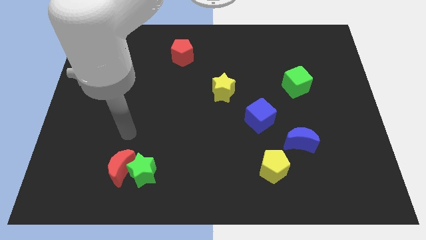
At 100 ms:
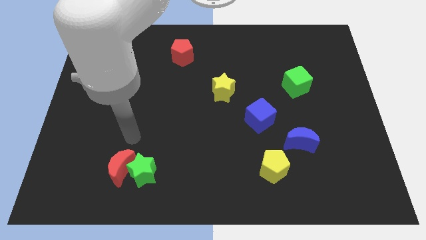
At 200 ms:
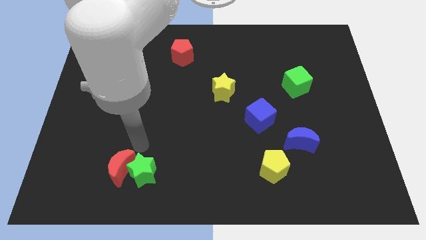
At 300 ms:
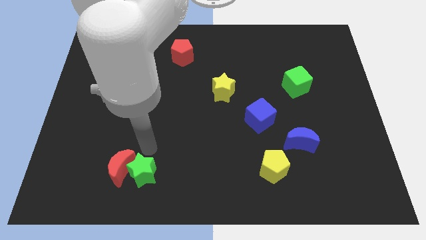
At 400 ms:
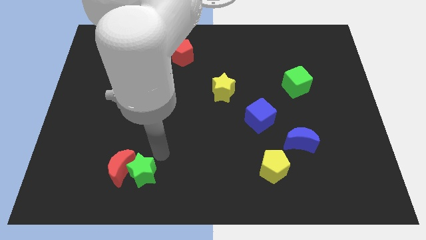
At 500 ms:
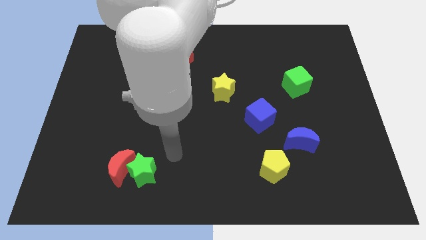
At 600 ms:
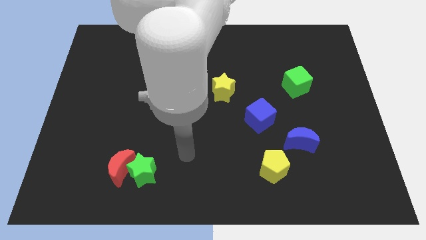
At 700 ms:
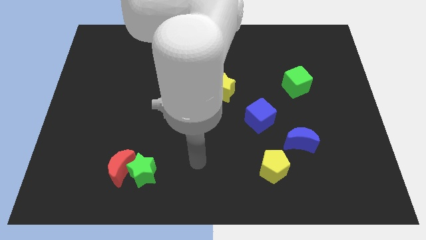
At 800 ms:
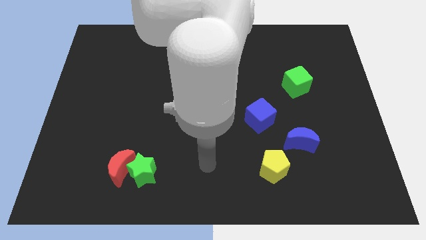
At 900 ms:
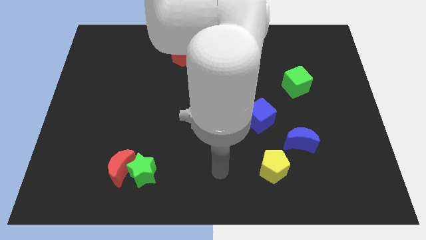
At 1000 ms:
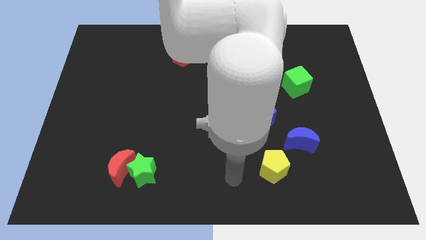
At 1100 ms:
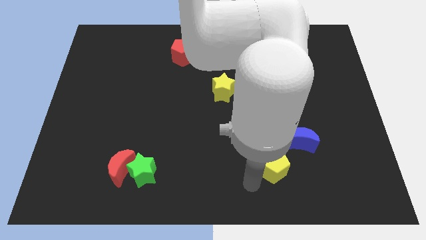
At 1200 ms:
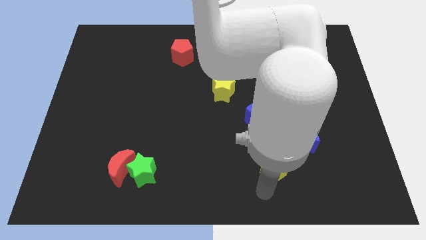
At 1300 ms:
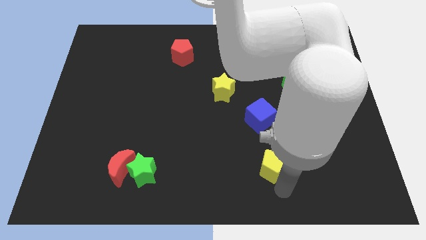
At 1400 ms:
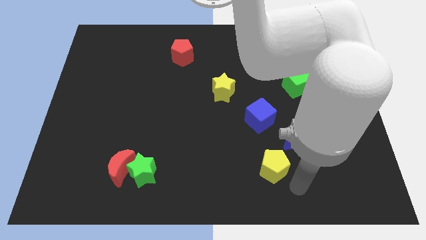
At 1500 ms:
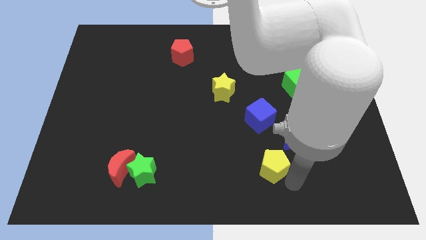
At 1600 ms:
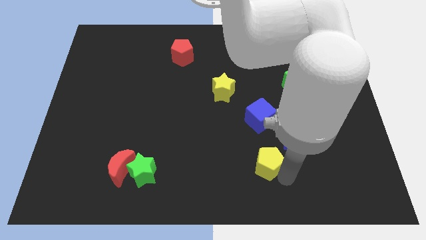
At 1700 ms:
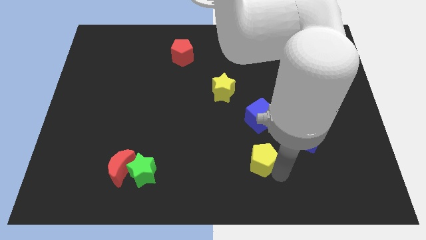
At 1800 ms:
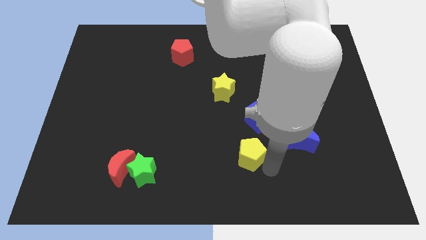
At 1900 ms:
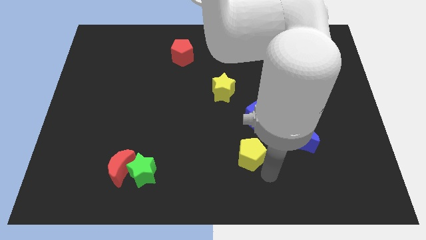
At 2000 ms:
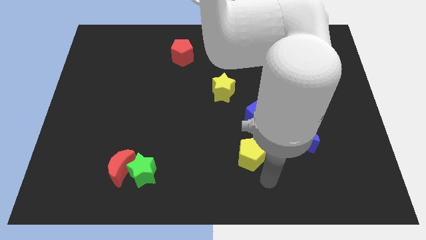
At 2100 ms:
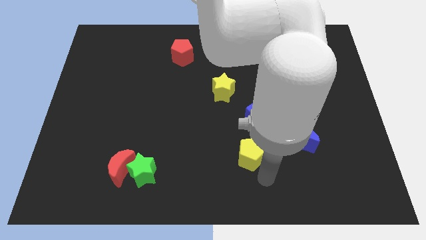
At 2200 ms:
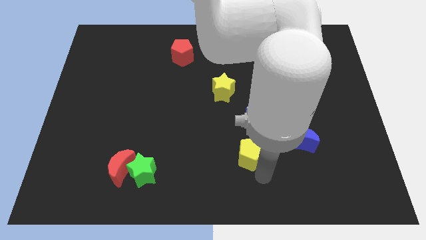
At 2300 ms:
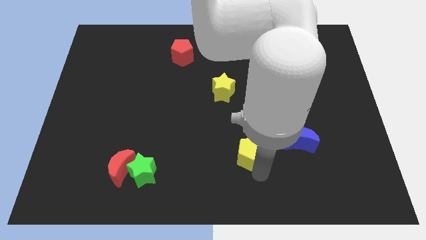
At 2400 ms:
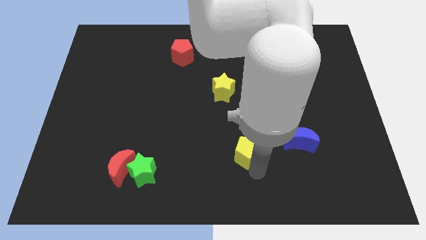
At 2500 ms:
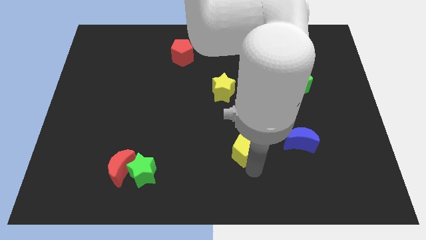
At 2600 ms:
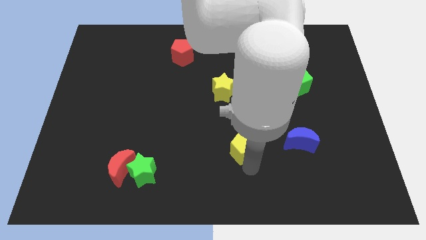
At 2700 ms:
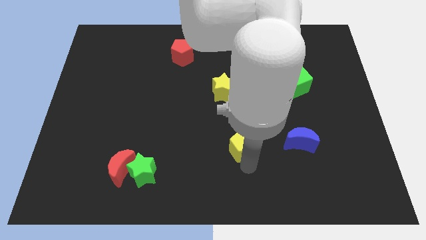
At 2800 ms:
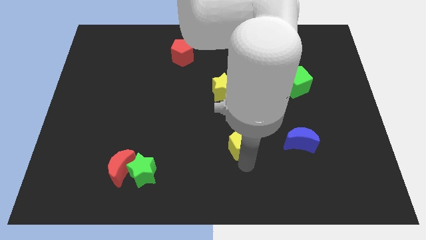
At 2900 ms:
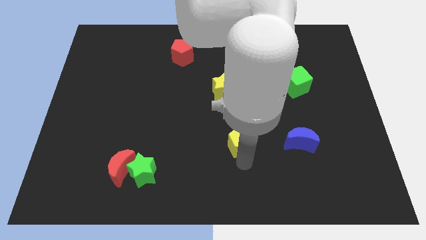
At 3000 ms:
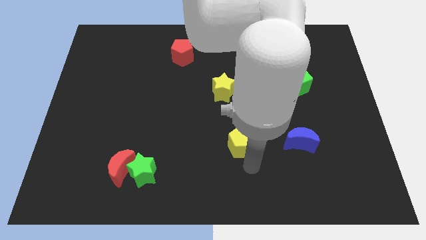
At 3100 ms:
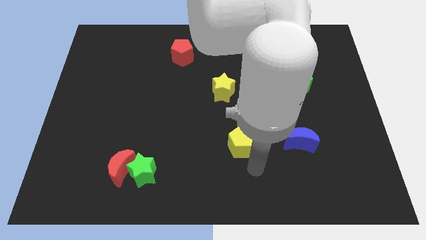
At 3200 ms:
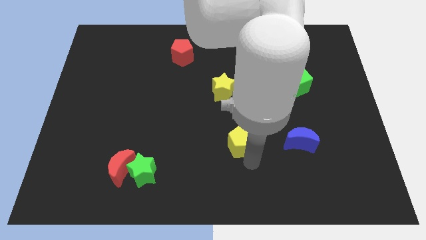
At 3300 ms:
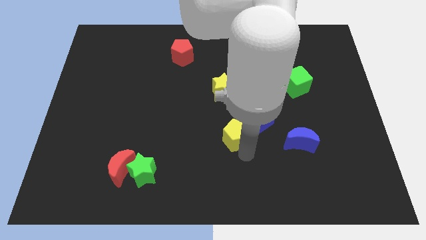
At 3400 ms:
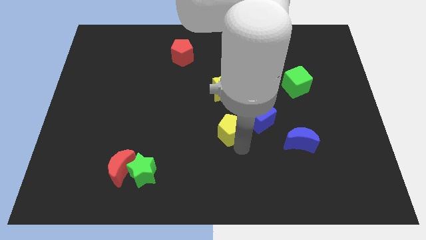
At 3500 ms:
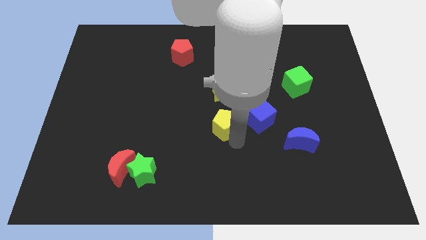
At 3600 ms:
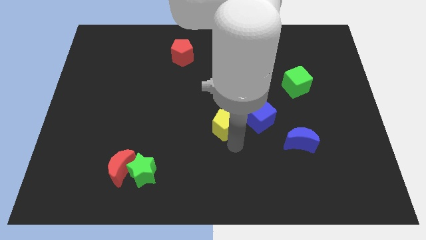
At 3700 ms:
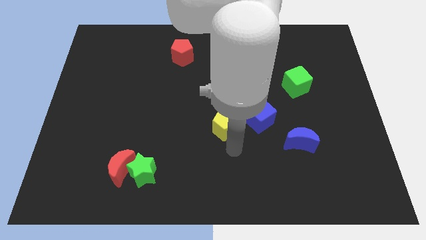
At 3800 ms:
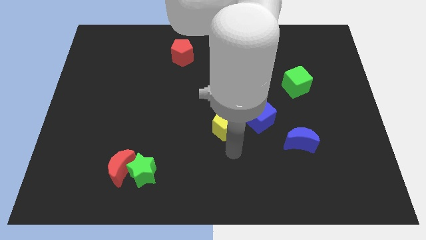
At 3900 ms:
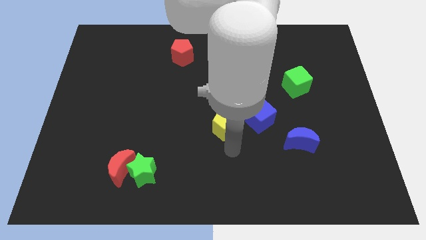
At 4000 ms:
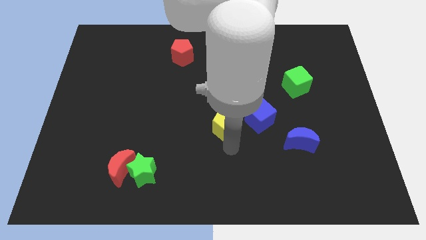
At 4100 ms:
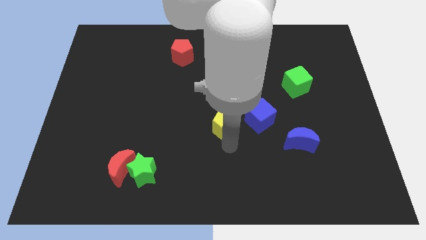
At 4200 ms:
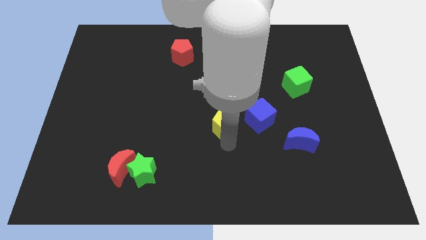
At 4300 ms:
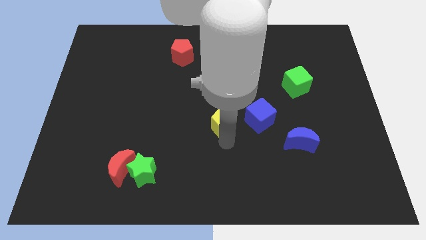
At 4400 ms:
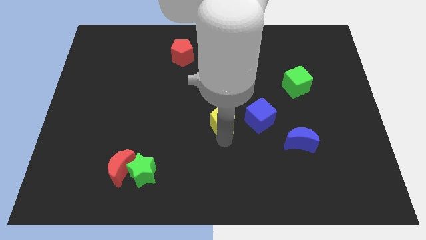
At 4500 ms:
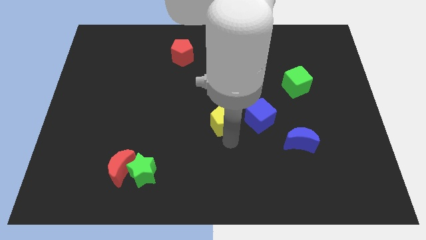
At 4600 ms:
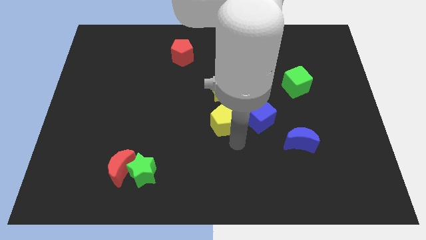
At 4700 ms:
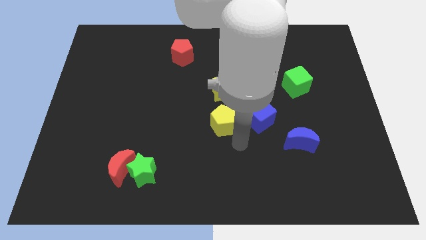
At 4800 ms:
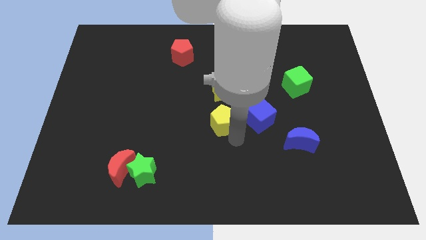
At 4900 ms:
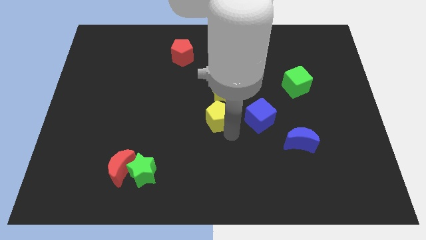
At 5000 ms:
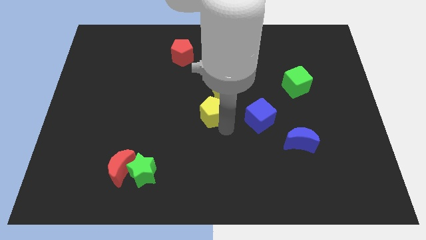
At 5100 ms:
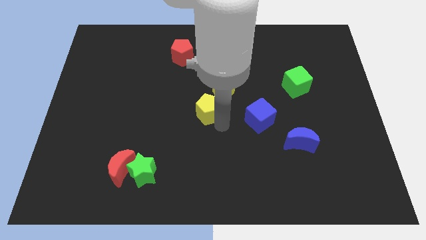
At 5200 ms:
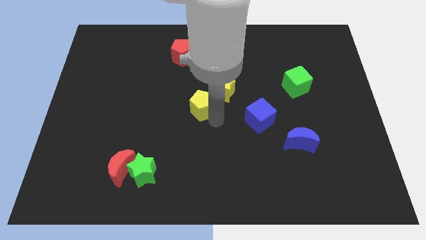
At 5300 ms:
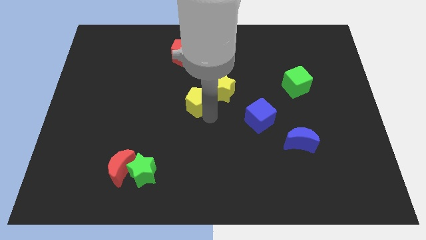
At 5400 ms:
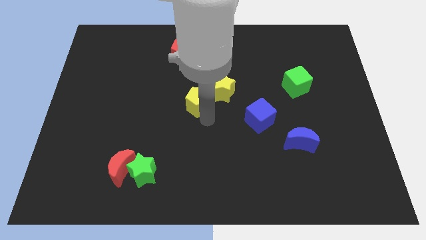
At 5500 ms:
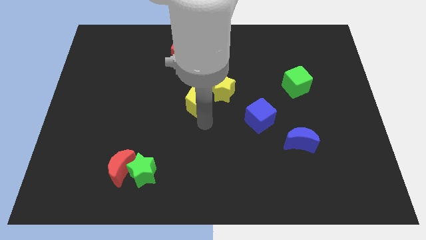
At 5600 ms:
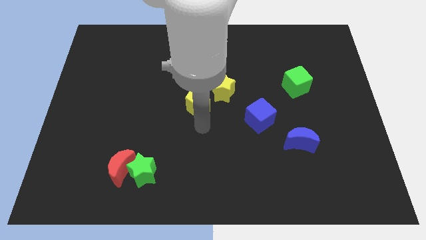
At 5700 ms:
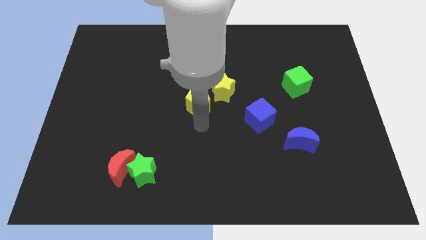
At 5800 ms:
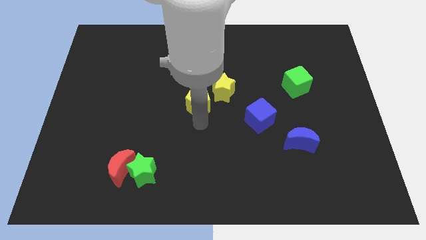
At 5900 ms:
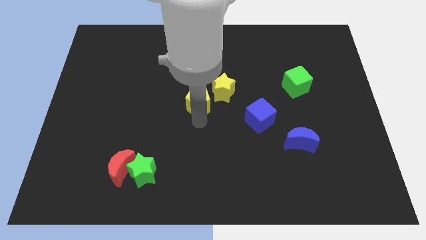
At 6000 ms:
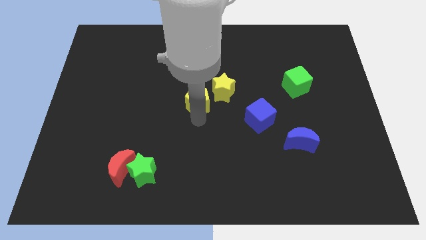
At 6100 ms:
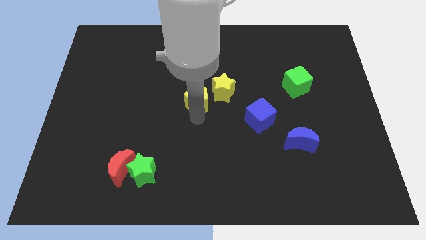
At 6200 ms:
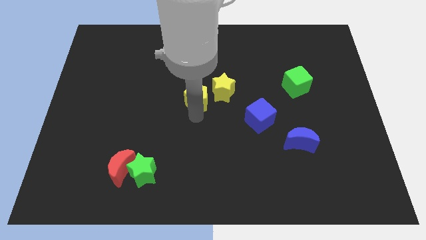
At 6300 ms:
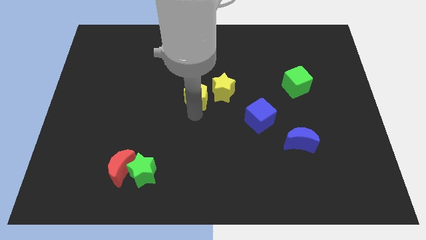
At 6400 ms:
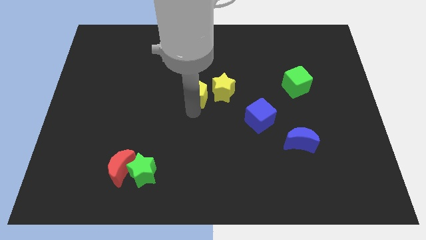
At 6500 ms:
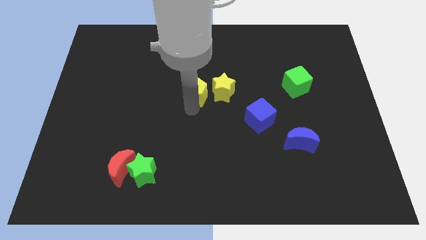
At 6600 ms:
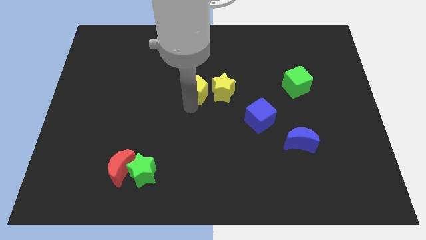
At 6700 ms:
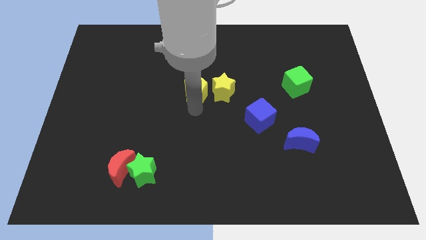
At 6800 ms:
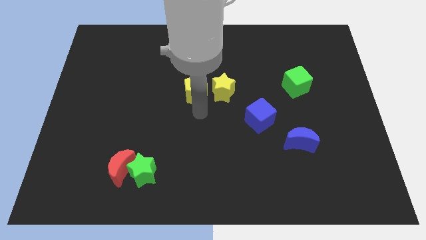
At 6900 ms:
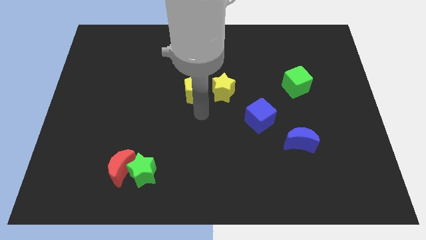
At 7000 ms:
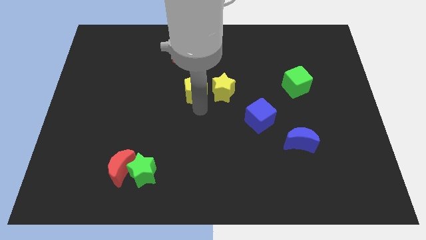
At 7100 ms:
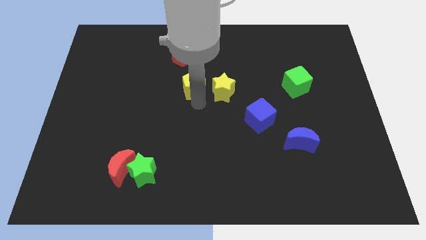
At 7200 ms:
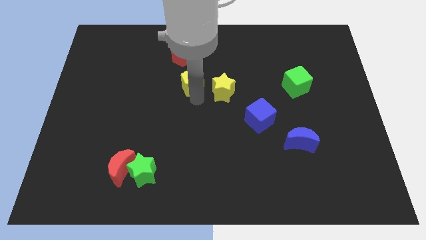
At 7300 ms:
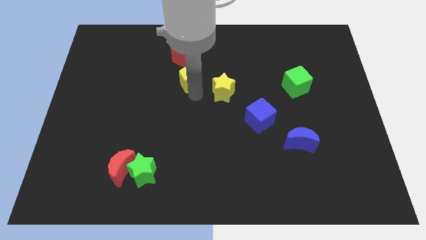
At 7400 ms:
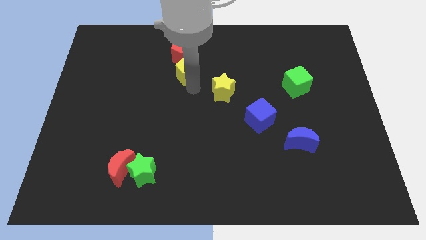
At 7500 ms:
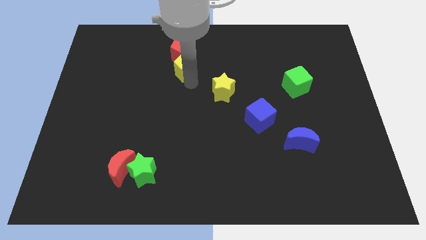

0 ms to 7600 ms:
put the yellow pentagon next to the red pentagon

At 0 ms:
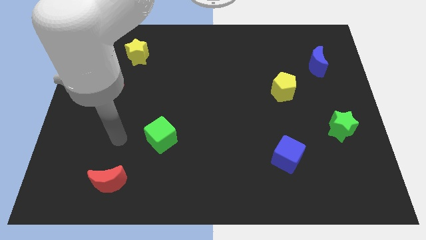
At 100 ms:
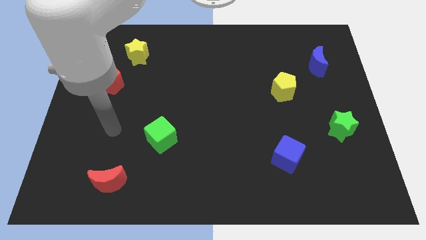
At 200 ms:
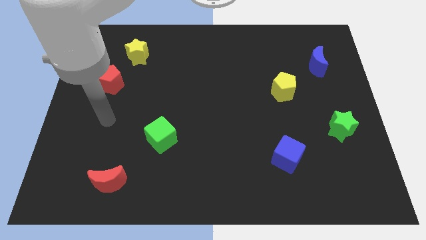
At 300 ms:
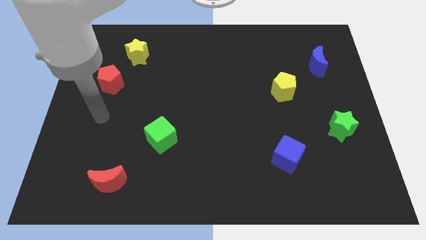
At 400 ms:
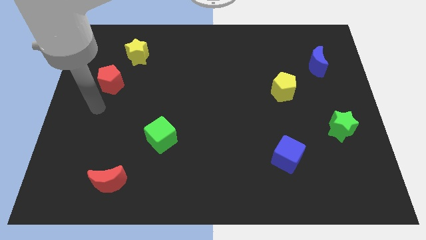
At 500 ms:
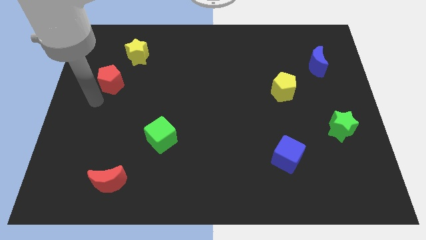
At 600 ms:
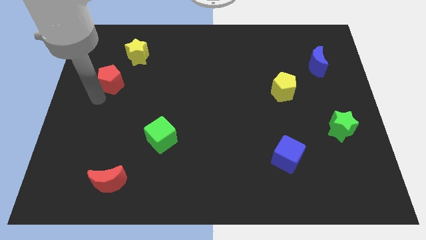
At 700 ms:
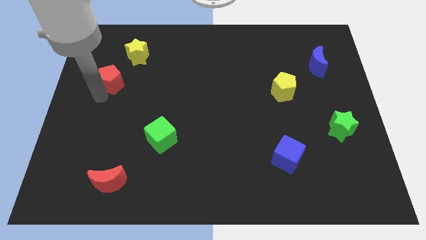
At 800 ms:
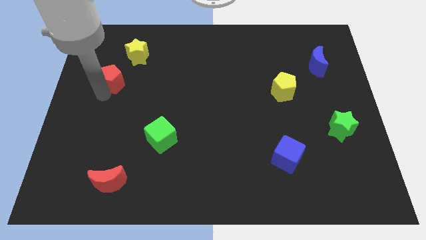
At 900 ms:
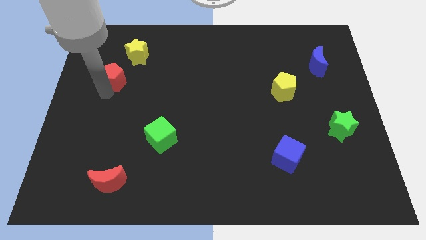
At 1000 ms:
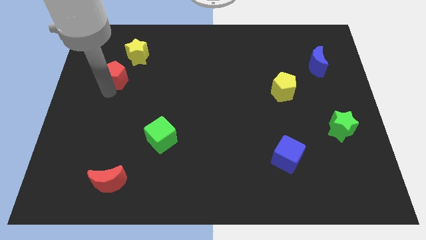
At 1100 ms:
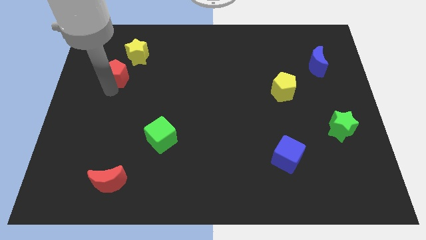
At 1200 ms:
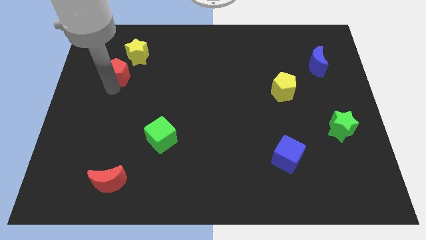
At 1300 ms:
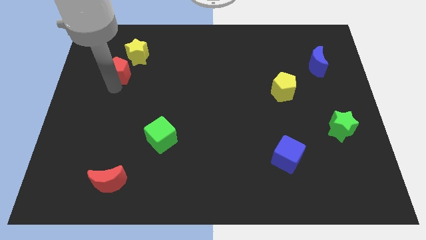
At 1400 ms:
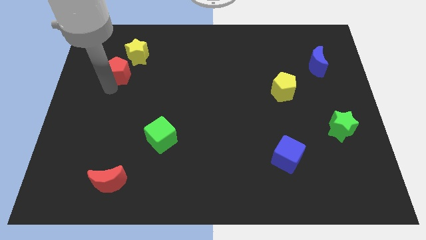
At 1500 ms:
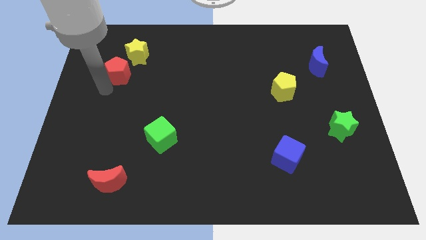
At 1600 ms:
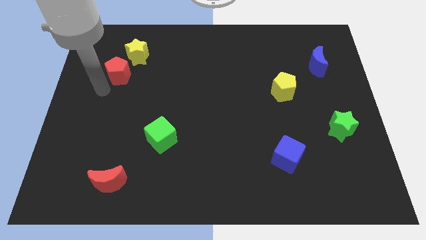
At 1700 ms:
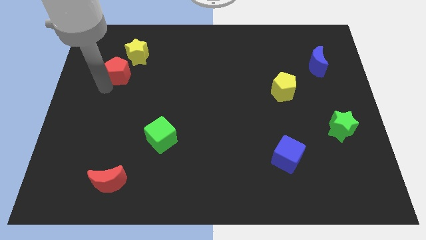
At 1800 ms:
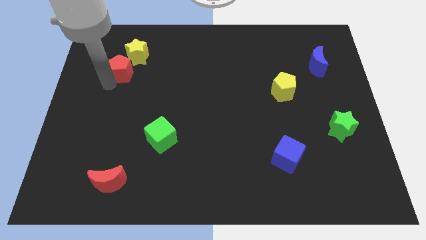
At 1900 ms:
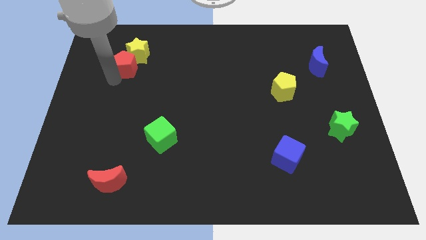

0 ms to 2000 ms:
move the red pentagon to the yellow star
